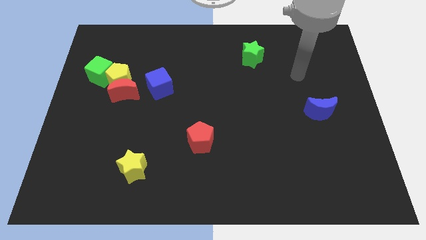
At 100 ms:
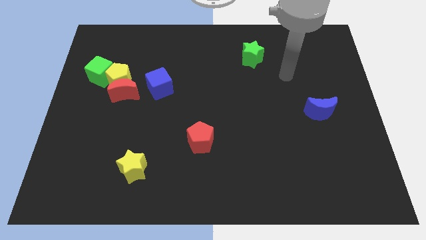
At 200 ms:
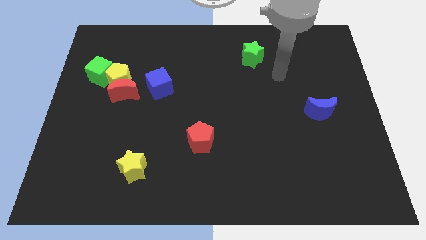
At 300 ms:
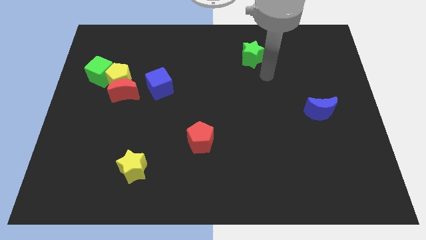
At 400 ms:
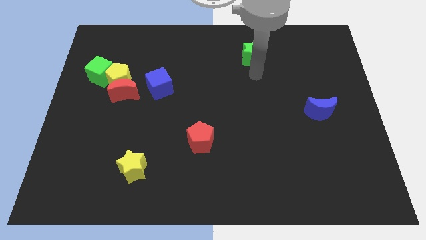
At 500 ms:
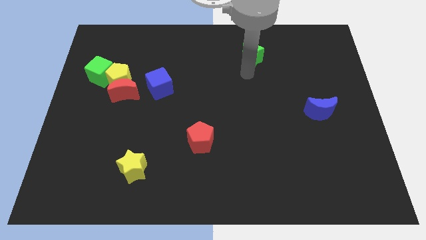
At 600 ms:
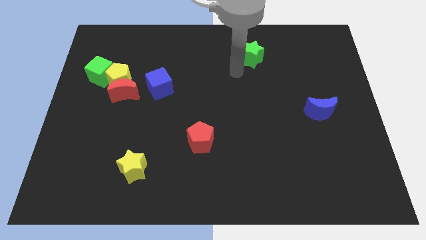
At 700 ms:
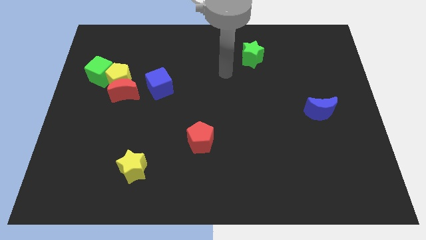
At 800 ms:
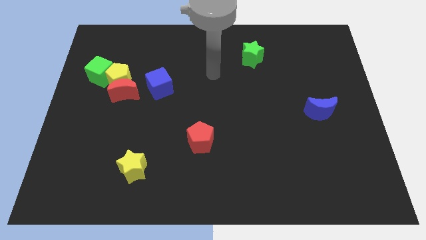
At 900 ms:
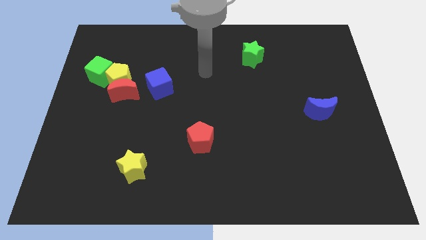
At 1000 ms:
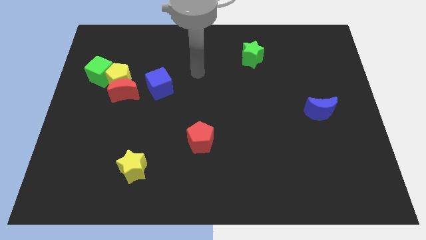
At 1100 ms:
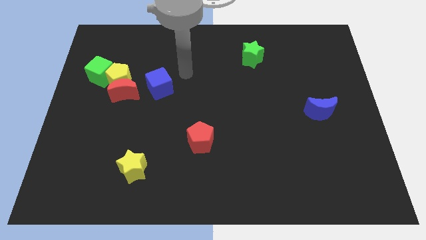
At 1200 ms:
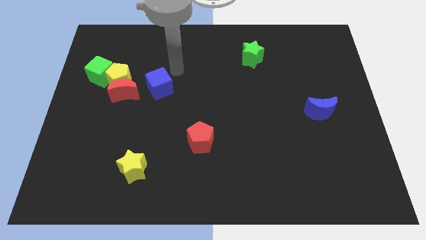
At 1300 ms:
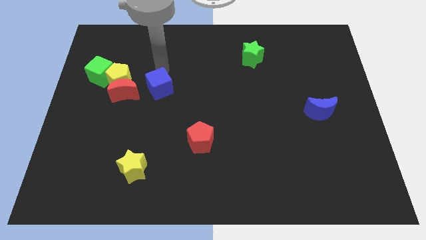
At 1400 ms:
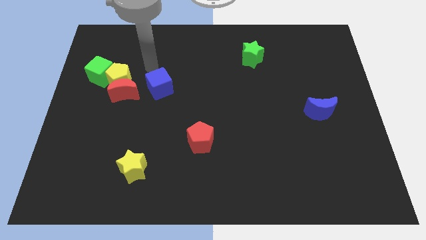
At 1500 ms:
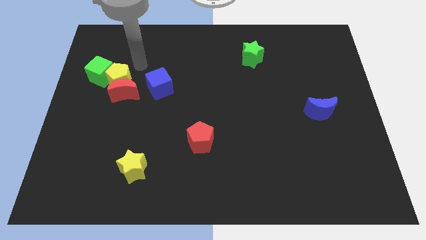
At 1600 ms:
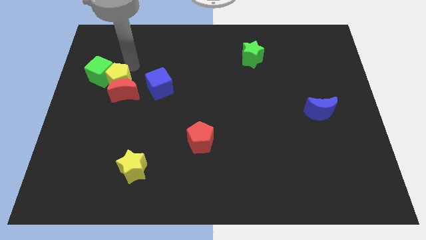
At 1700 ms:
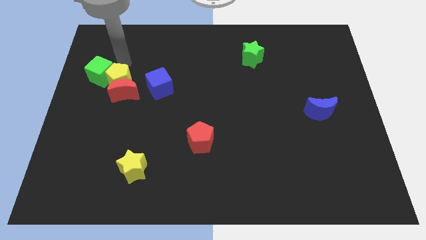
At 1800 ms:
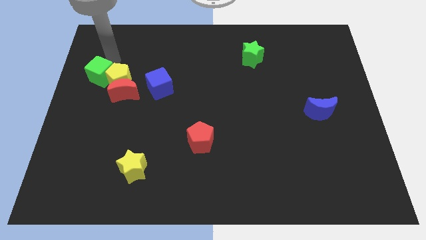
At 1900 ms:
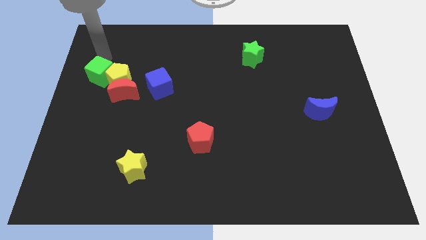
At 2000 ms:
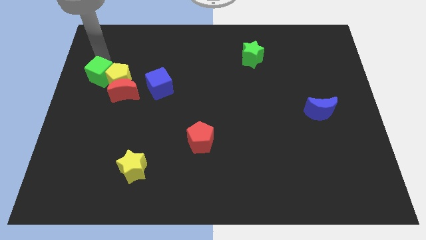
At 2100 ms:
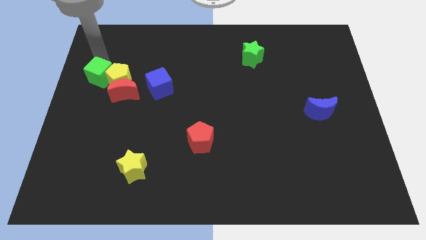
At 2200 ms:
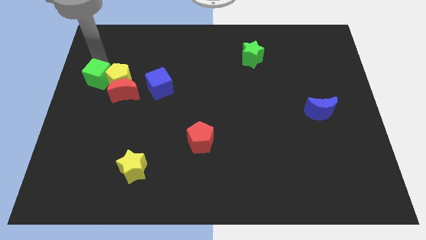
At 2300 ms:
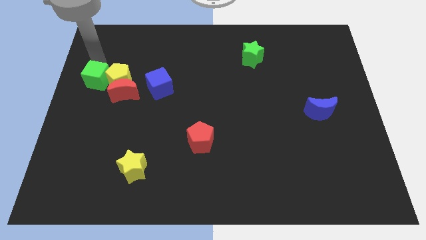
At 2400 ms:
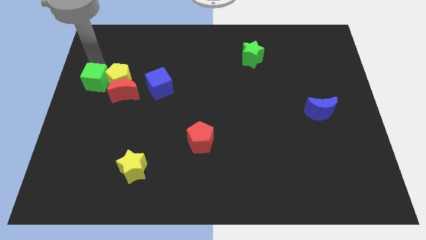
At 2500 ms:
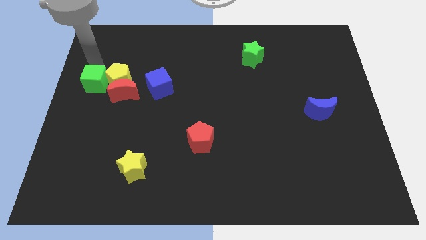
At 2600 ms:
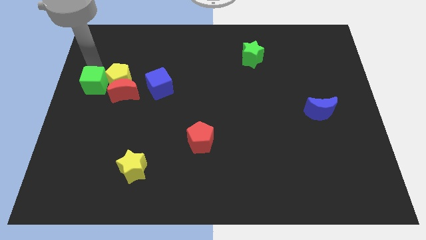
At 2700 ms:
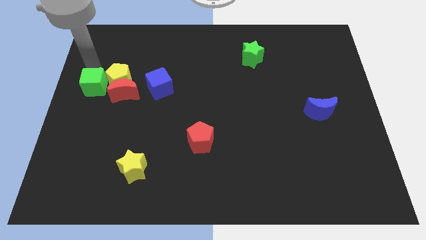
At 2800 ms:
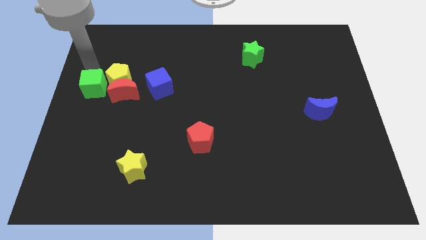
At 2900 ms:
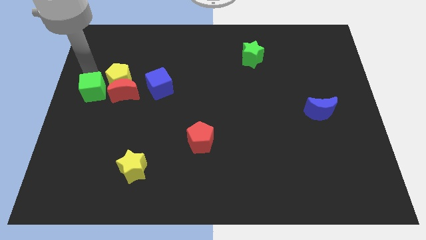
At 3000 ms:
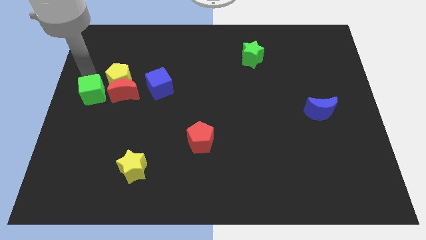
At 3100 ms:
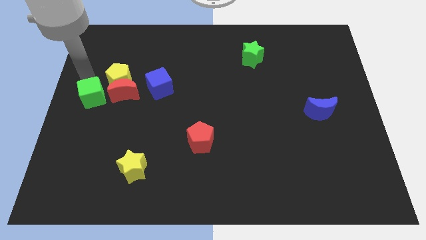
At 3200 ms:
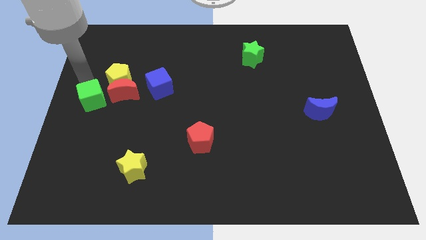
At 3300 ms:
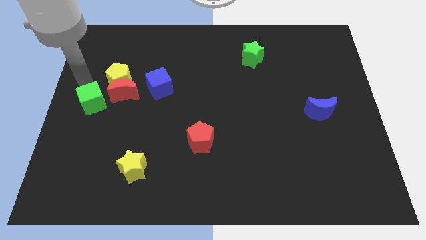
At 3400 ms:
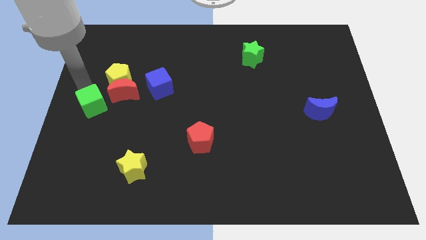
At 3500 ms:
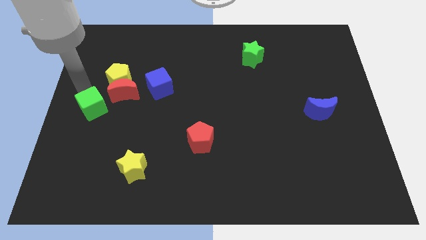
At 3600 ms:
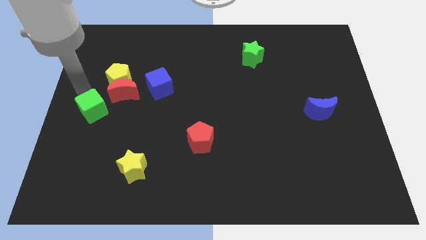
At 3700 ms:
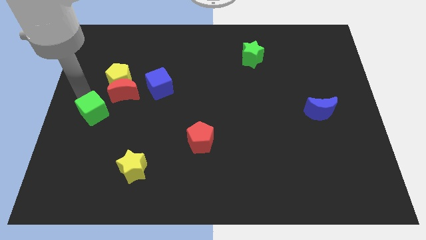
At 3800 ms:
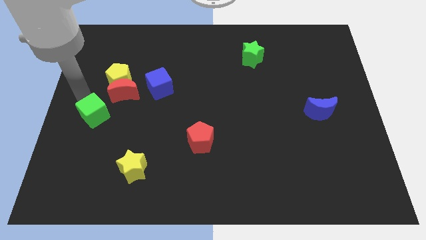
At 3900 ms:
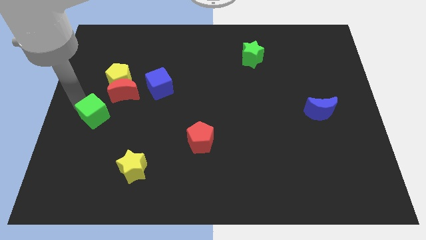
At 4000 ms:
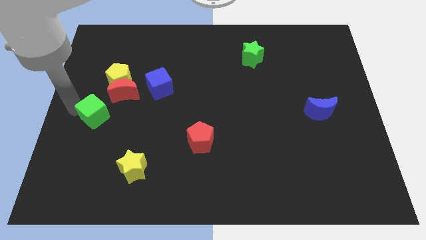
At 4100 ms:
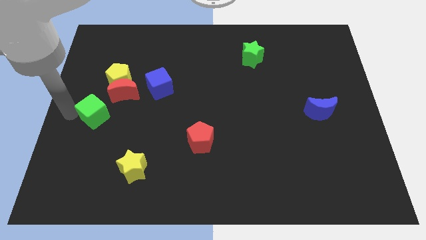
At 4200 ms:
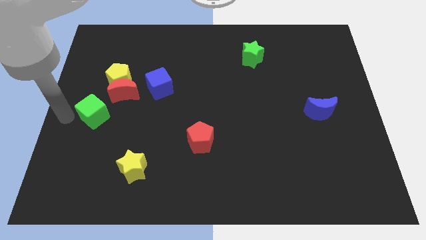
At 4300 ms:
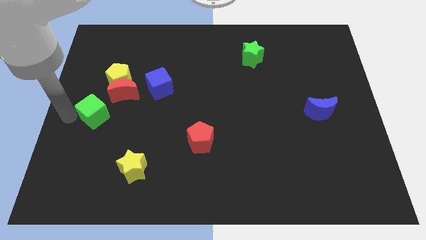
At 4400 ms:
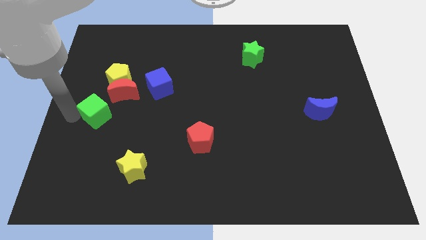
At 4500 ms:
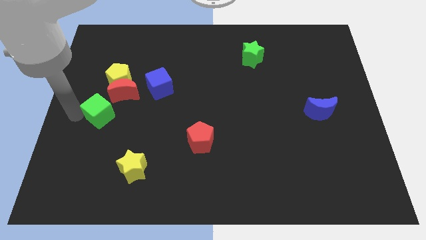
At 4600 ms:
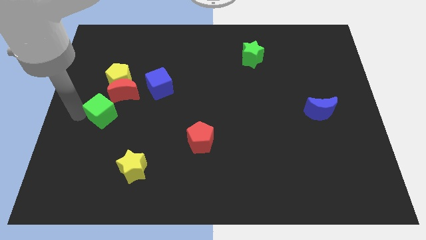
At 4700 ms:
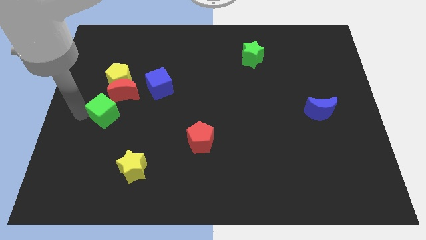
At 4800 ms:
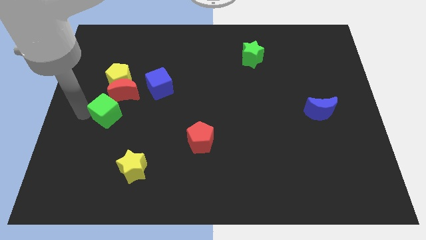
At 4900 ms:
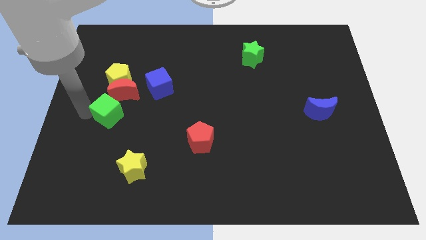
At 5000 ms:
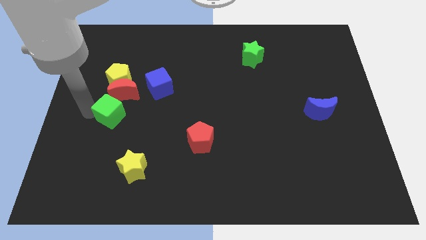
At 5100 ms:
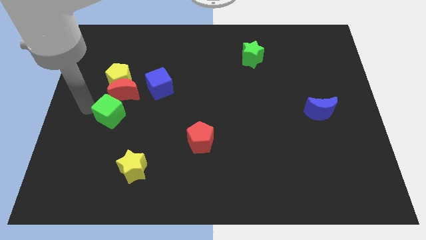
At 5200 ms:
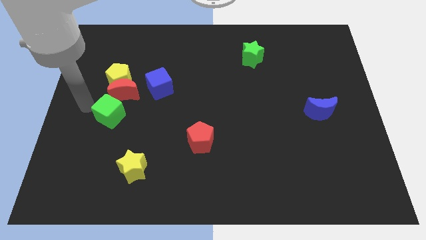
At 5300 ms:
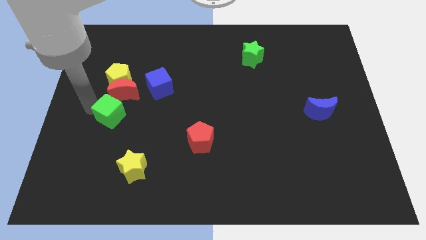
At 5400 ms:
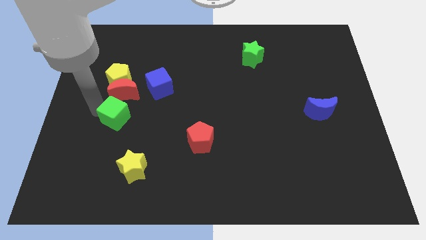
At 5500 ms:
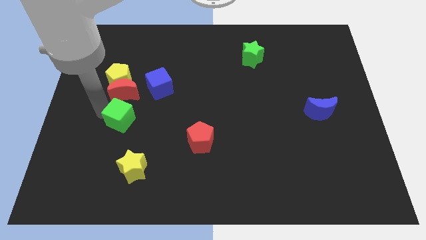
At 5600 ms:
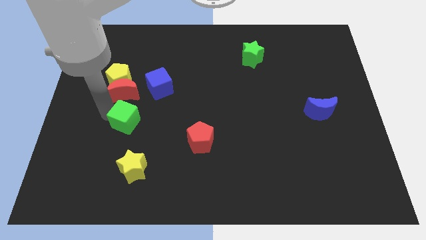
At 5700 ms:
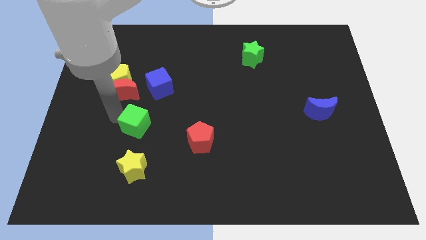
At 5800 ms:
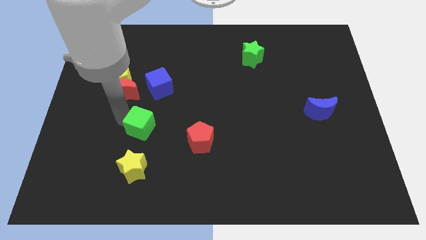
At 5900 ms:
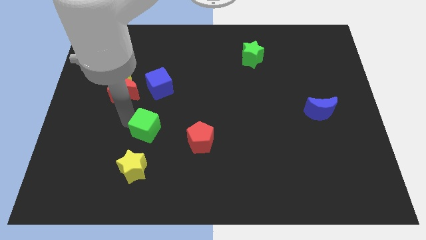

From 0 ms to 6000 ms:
push the green cube diagonally down and right

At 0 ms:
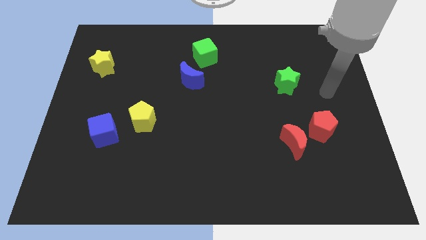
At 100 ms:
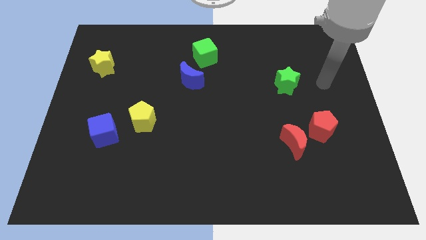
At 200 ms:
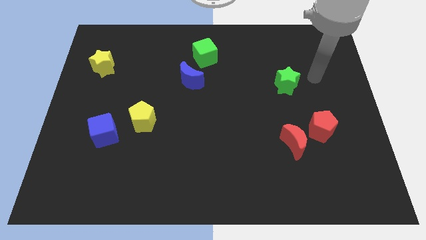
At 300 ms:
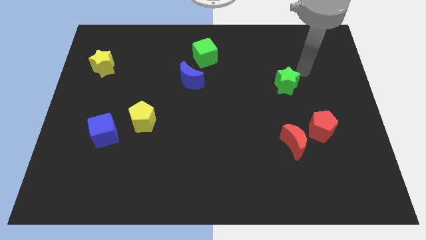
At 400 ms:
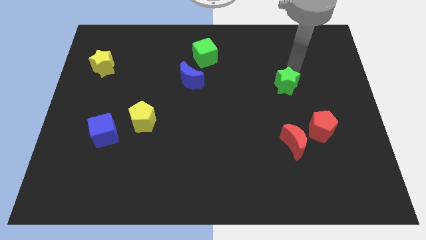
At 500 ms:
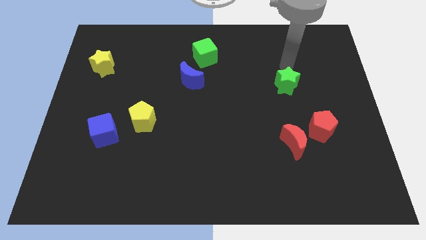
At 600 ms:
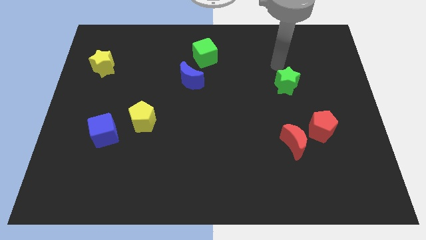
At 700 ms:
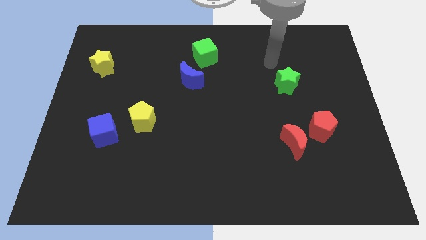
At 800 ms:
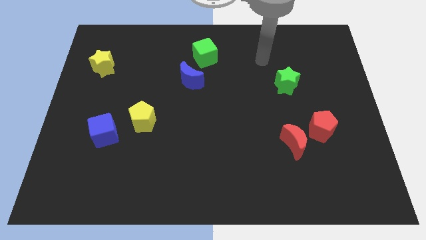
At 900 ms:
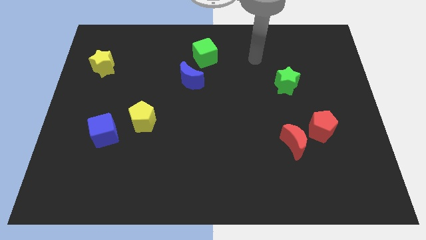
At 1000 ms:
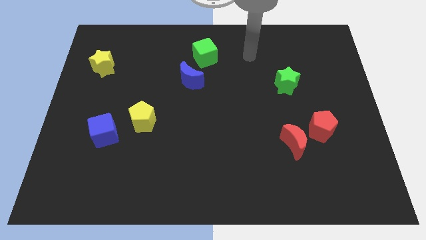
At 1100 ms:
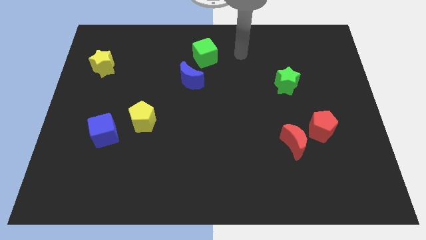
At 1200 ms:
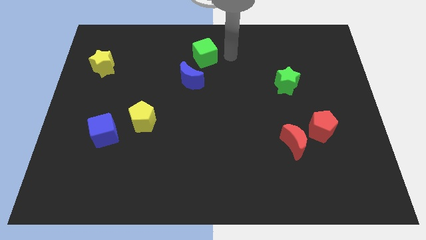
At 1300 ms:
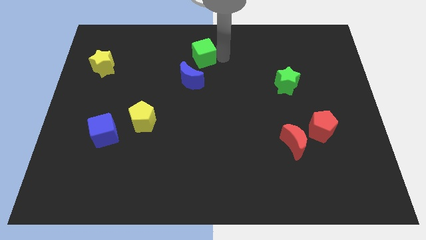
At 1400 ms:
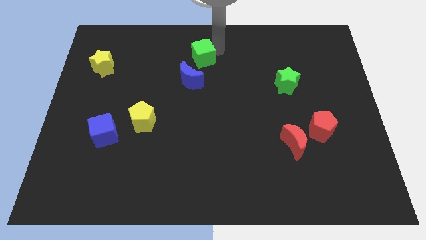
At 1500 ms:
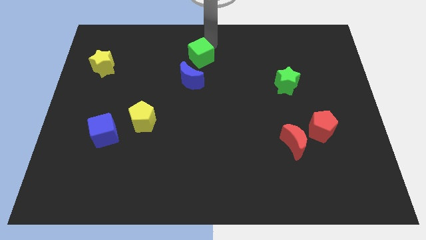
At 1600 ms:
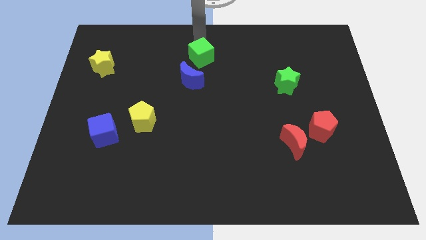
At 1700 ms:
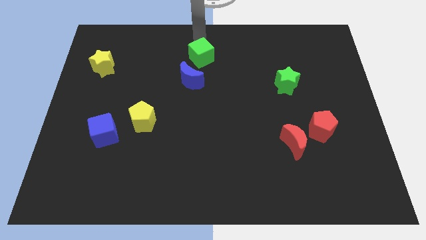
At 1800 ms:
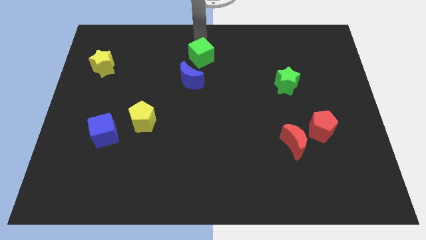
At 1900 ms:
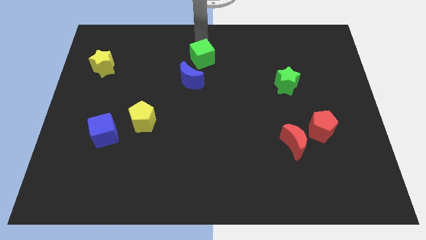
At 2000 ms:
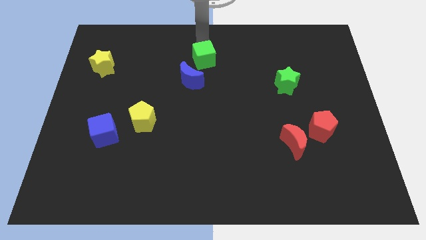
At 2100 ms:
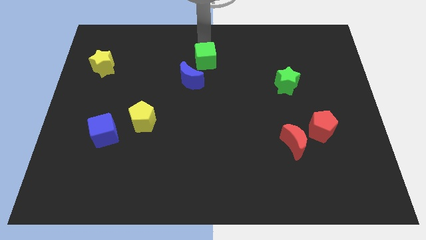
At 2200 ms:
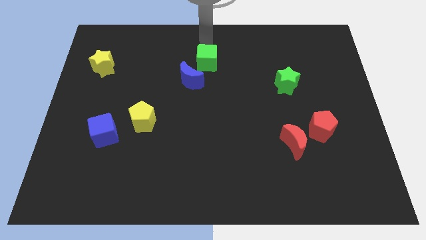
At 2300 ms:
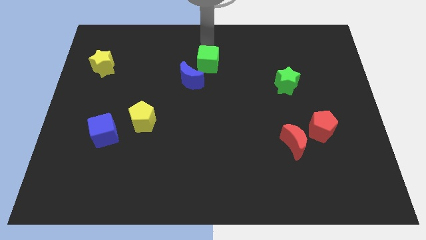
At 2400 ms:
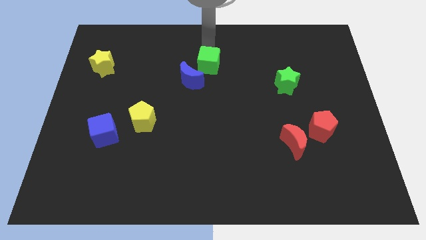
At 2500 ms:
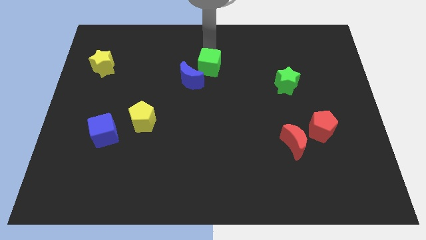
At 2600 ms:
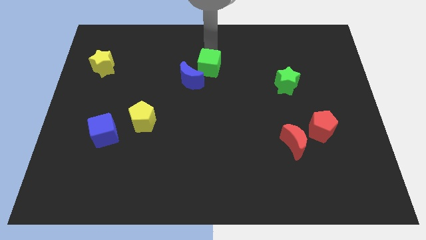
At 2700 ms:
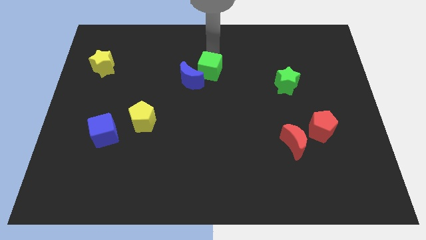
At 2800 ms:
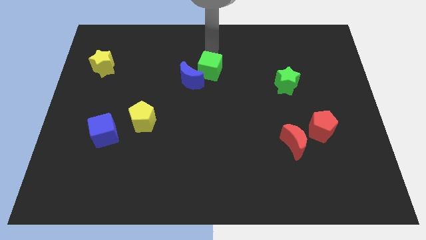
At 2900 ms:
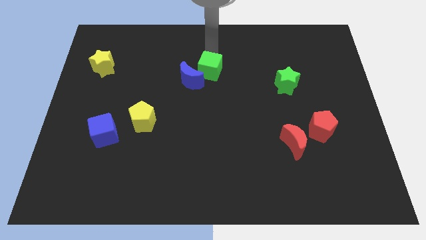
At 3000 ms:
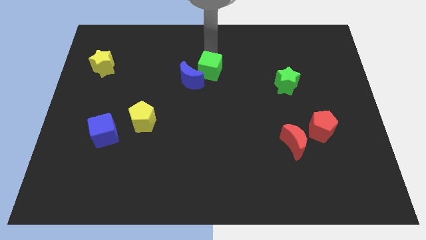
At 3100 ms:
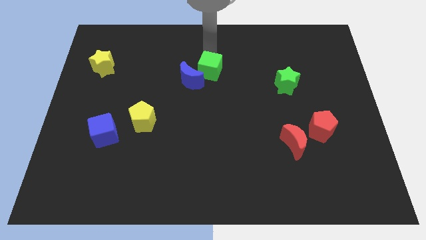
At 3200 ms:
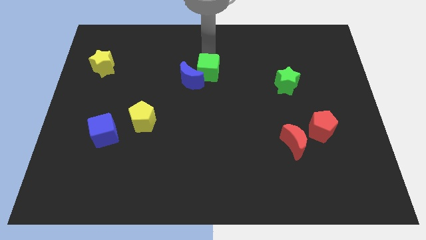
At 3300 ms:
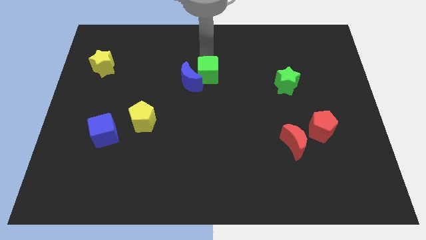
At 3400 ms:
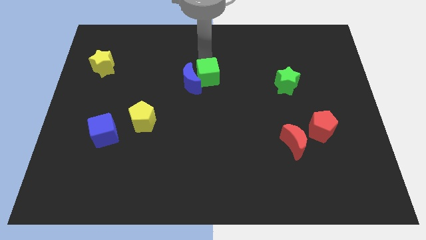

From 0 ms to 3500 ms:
slide the green cube somewhat down
